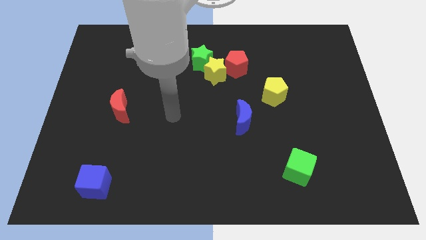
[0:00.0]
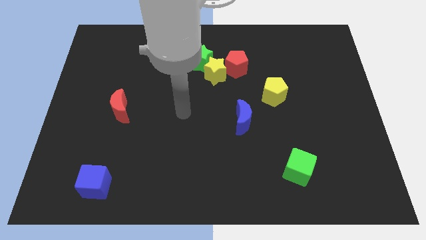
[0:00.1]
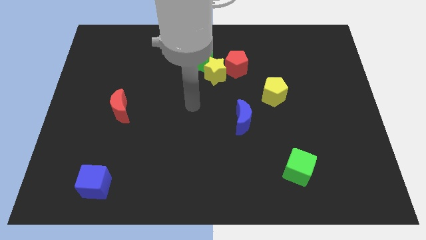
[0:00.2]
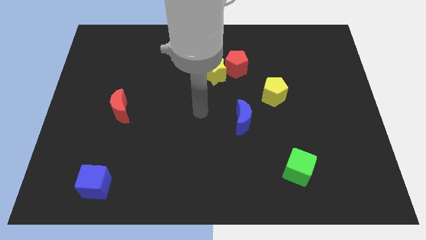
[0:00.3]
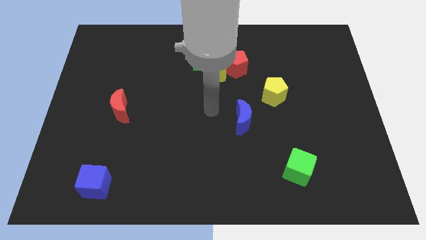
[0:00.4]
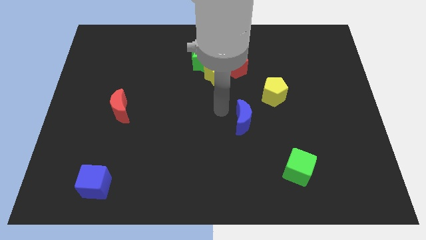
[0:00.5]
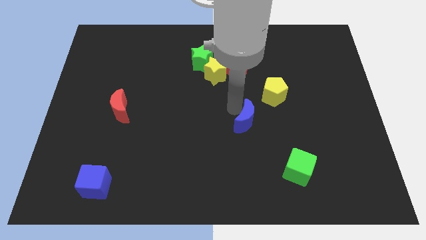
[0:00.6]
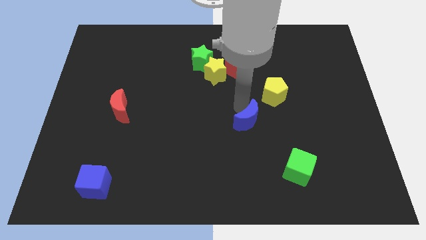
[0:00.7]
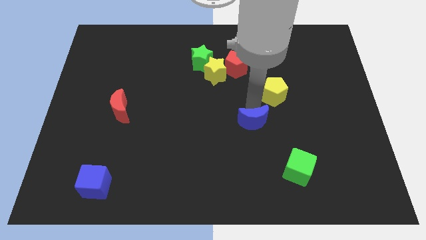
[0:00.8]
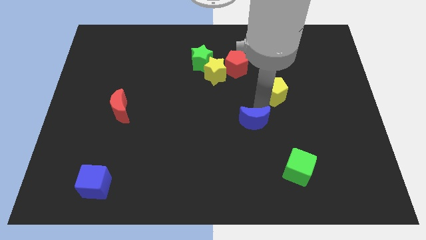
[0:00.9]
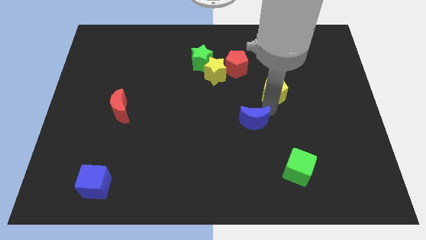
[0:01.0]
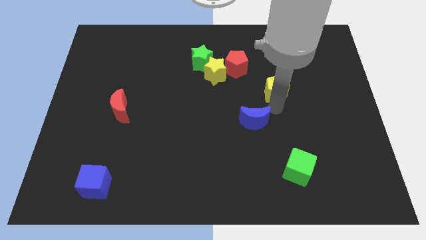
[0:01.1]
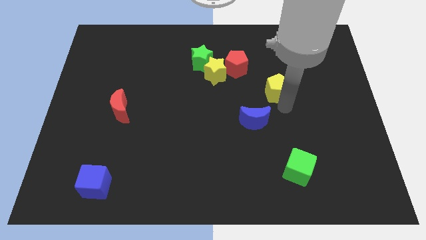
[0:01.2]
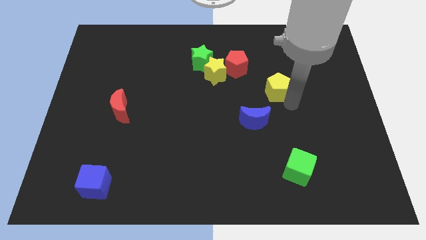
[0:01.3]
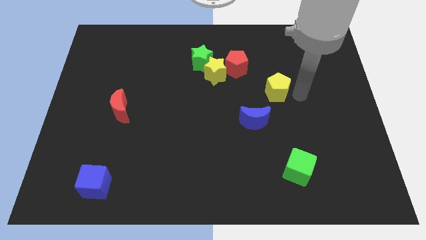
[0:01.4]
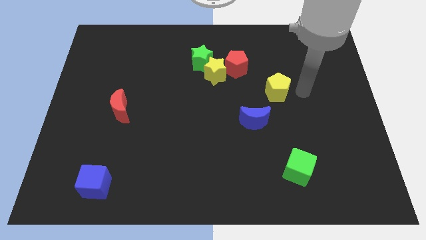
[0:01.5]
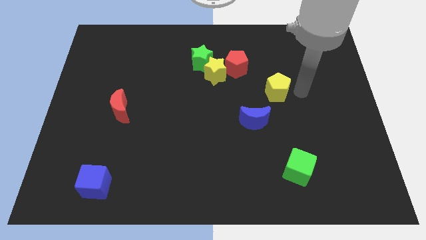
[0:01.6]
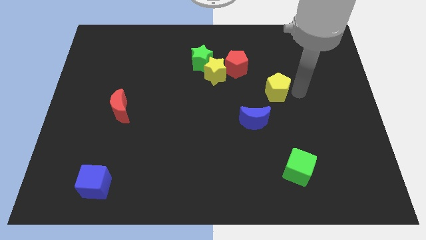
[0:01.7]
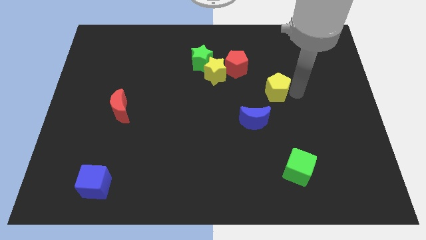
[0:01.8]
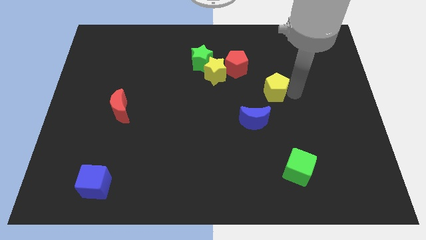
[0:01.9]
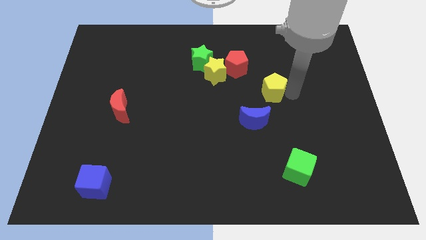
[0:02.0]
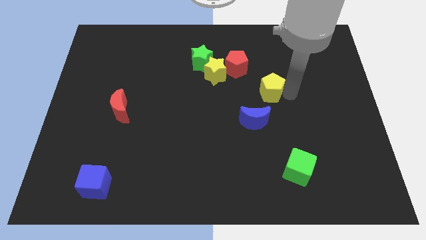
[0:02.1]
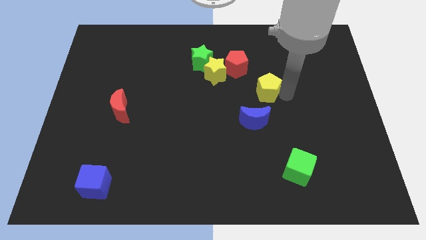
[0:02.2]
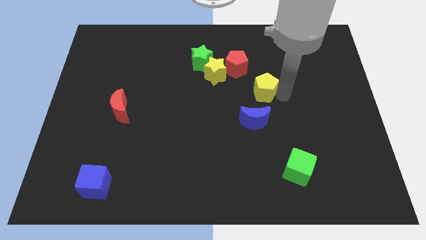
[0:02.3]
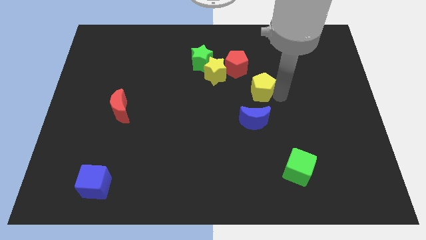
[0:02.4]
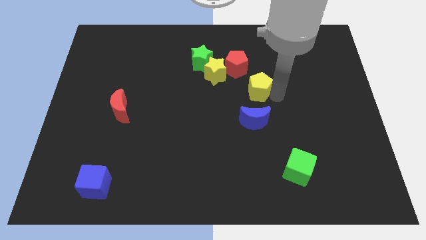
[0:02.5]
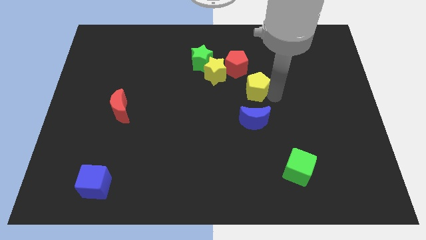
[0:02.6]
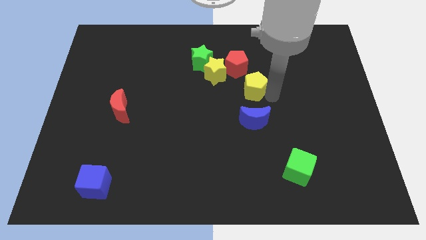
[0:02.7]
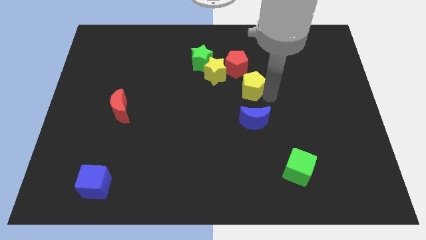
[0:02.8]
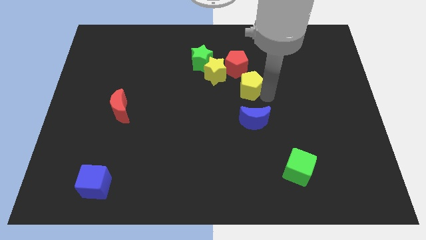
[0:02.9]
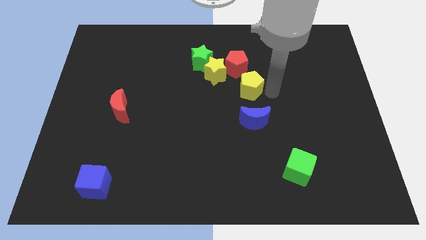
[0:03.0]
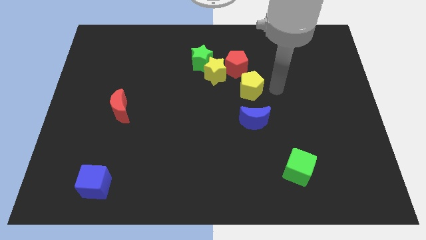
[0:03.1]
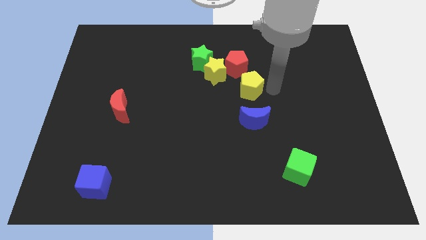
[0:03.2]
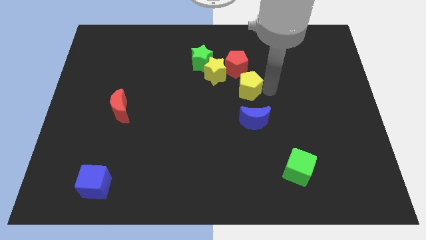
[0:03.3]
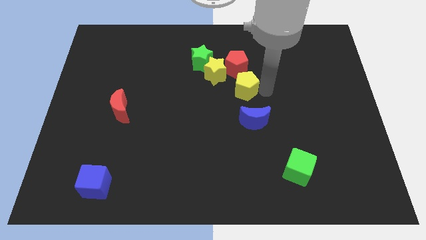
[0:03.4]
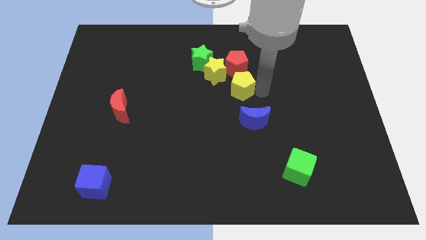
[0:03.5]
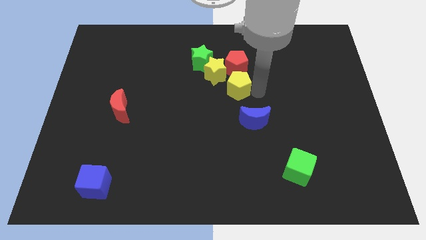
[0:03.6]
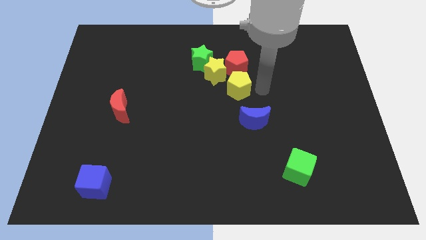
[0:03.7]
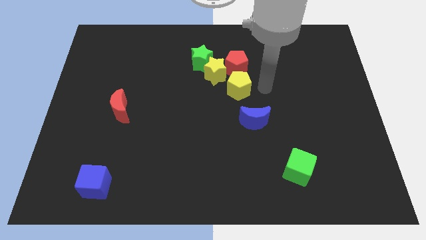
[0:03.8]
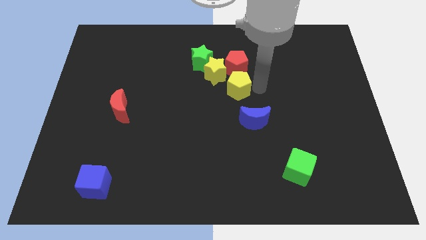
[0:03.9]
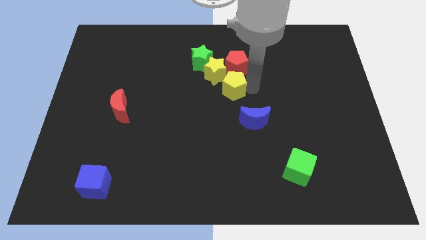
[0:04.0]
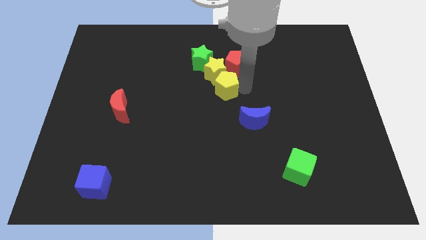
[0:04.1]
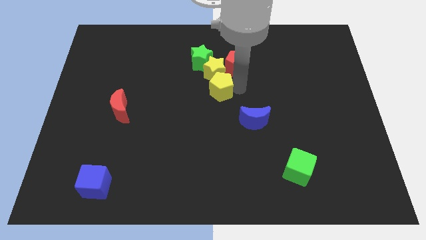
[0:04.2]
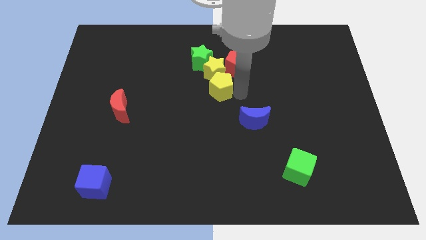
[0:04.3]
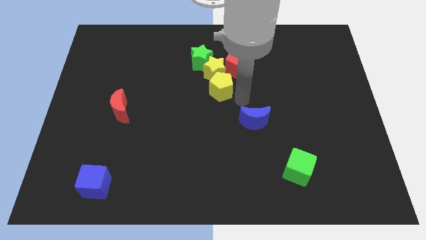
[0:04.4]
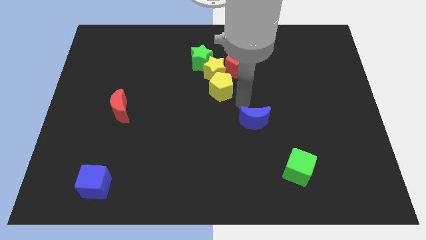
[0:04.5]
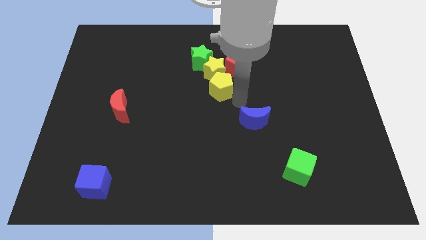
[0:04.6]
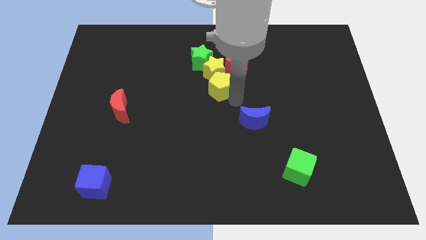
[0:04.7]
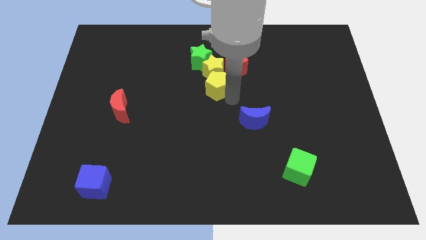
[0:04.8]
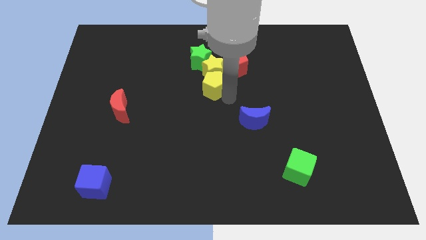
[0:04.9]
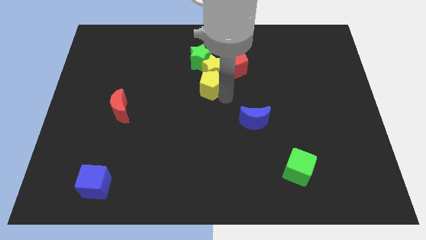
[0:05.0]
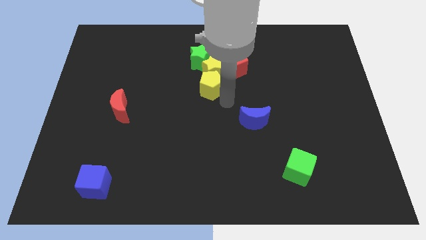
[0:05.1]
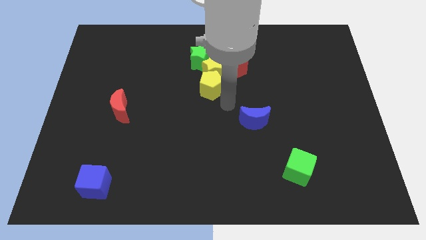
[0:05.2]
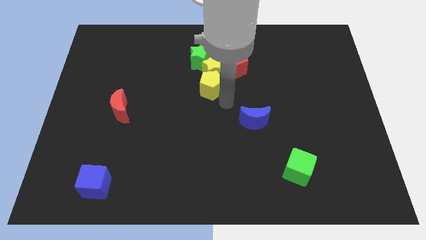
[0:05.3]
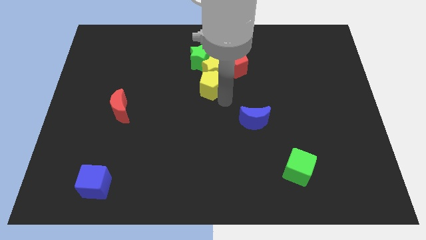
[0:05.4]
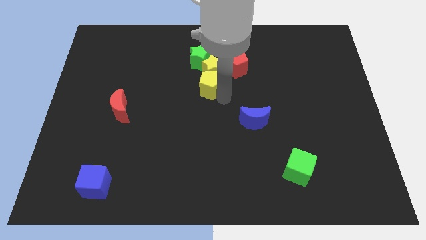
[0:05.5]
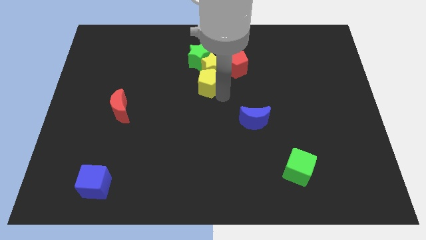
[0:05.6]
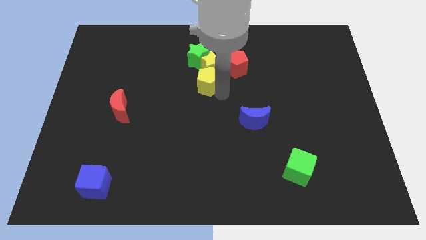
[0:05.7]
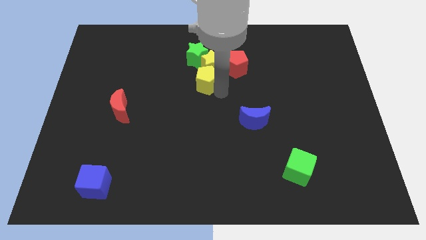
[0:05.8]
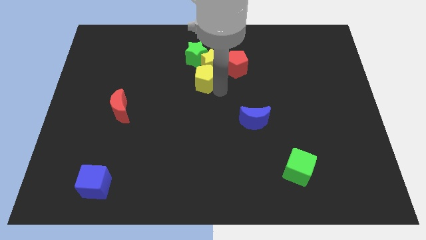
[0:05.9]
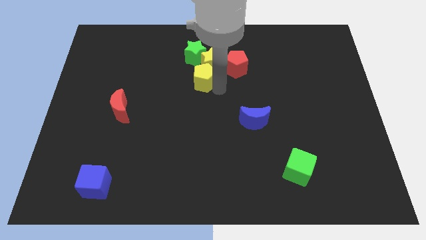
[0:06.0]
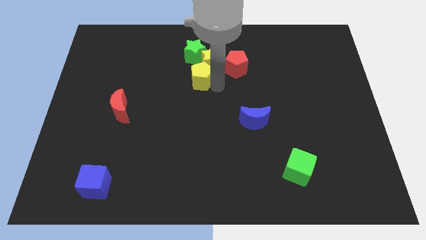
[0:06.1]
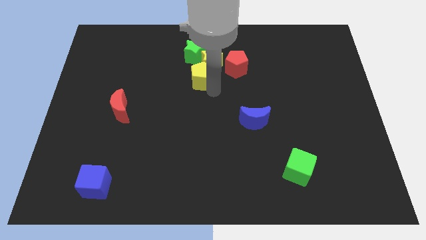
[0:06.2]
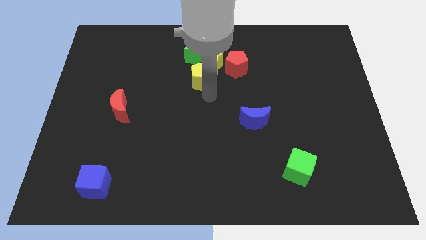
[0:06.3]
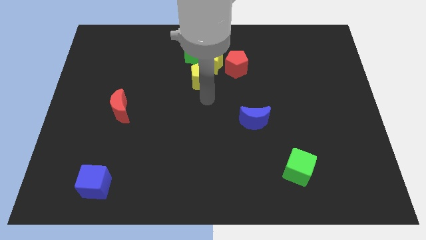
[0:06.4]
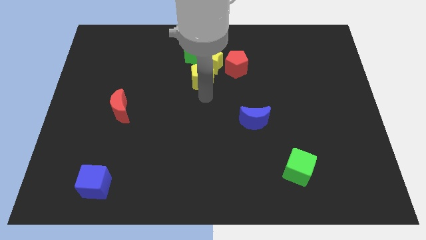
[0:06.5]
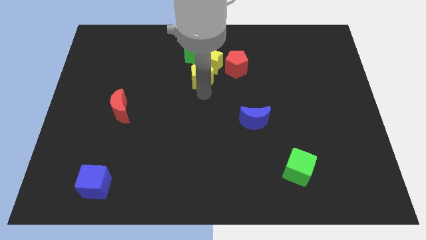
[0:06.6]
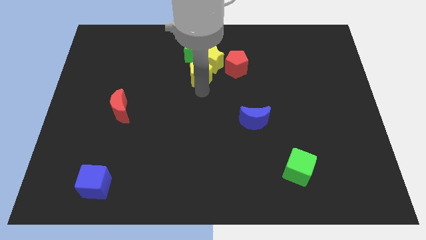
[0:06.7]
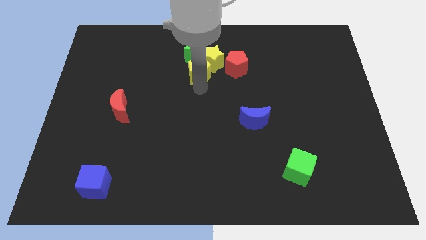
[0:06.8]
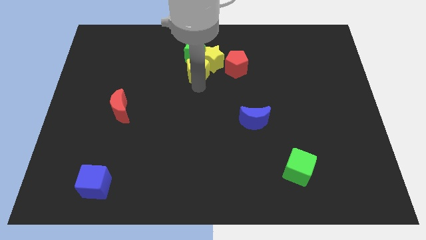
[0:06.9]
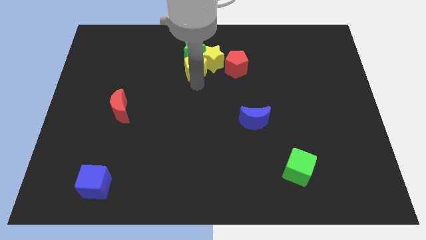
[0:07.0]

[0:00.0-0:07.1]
move the yellow pentagon close to the green star
